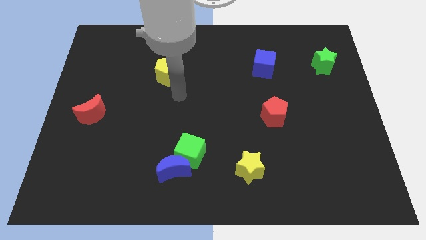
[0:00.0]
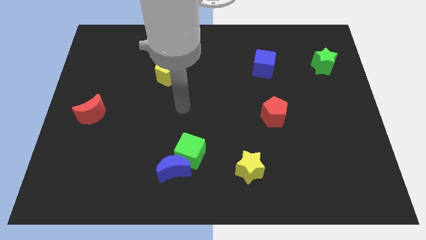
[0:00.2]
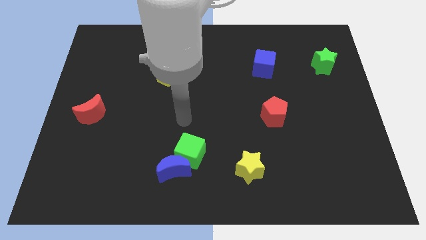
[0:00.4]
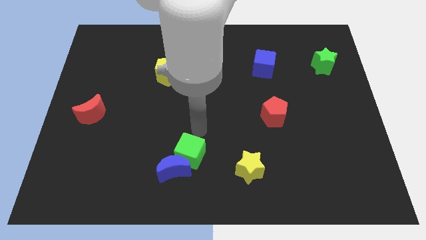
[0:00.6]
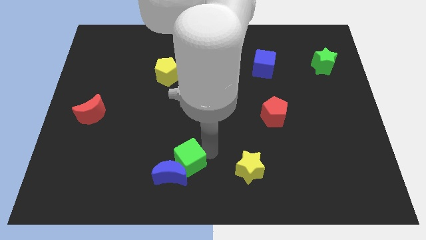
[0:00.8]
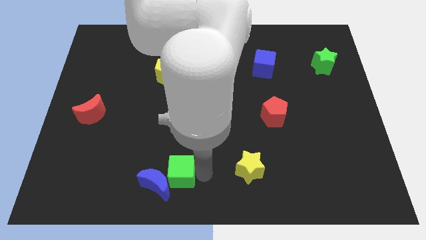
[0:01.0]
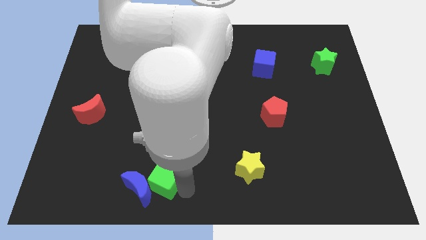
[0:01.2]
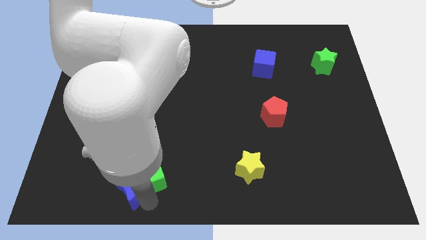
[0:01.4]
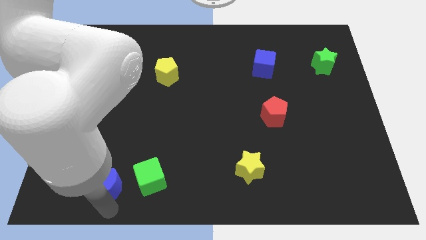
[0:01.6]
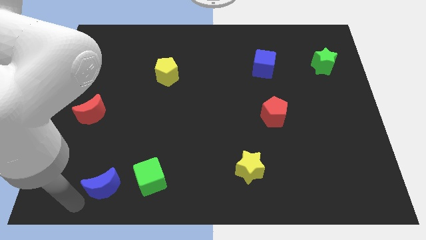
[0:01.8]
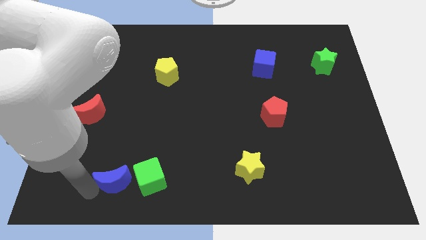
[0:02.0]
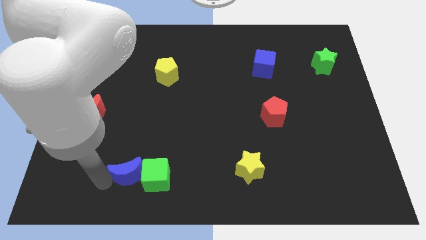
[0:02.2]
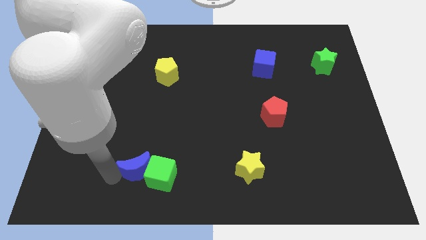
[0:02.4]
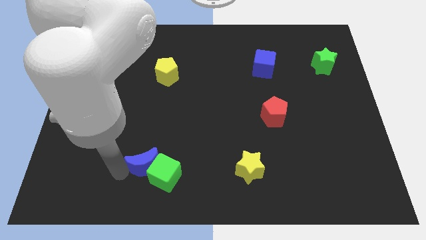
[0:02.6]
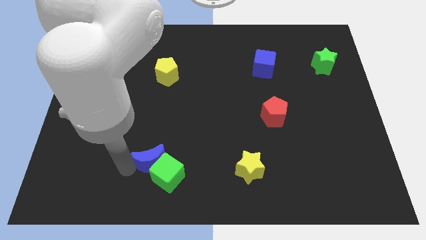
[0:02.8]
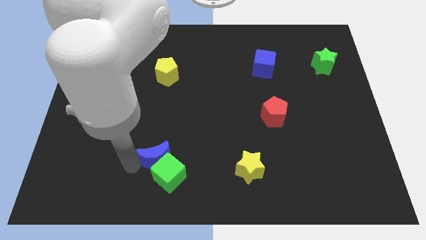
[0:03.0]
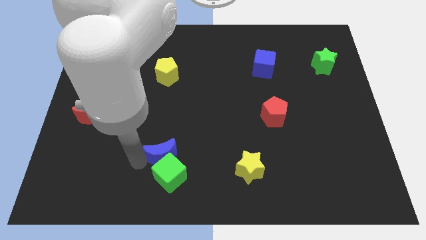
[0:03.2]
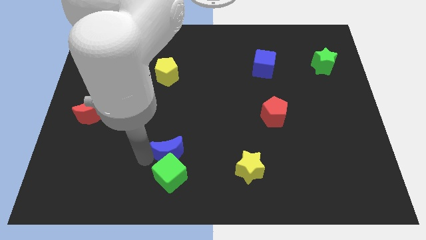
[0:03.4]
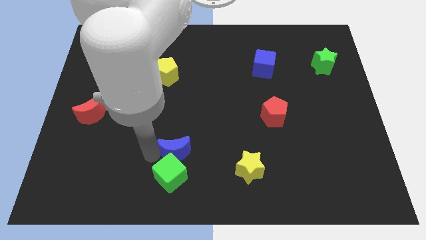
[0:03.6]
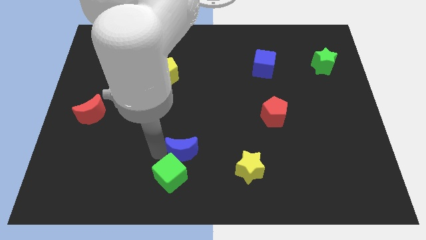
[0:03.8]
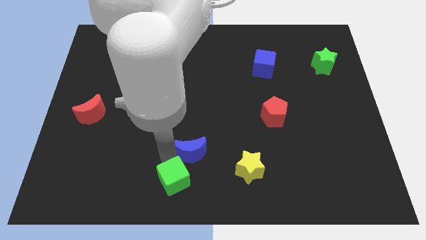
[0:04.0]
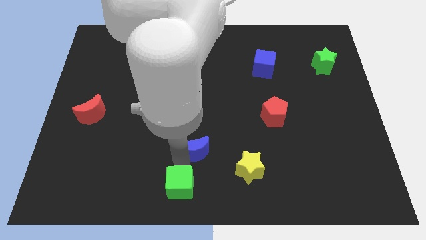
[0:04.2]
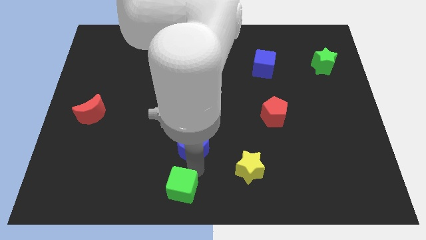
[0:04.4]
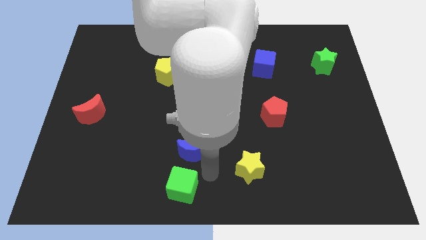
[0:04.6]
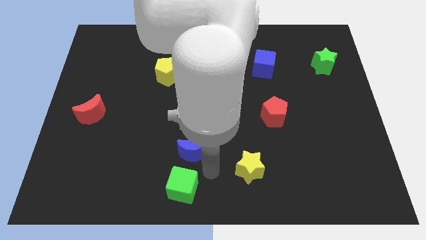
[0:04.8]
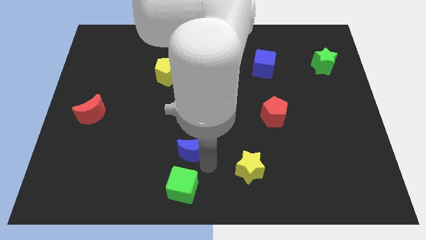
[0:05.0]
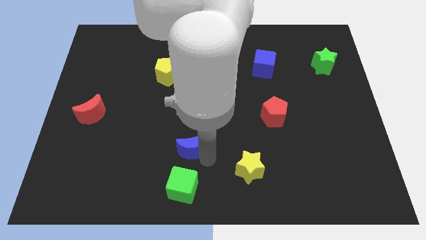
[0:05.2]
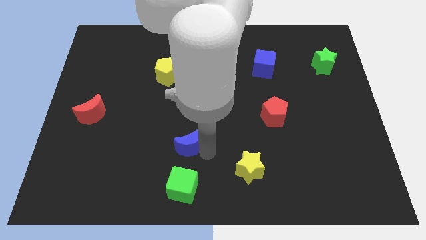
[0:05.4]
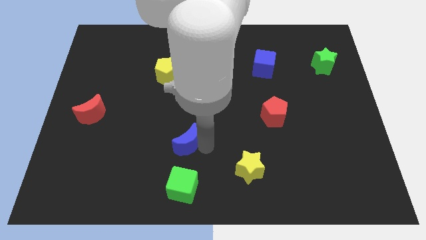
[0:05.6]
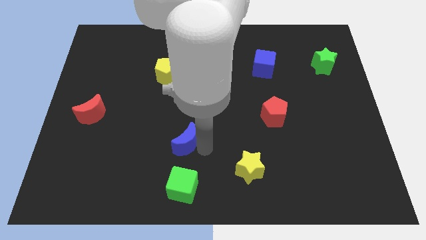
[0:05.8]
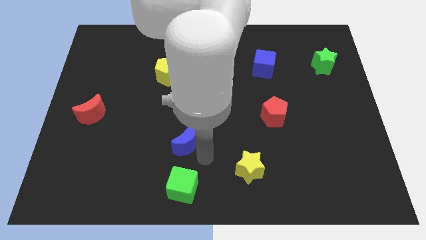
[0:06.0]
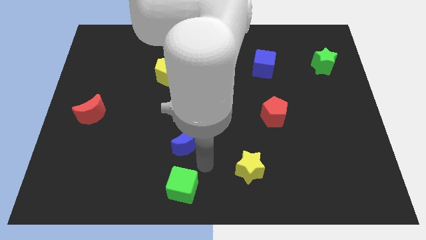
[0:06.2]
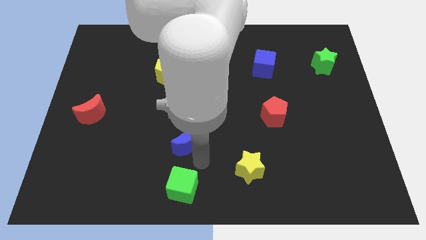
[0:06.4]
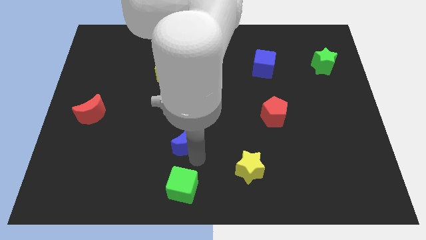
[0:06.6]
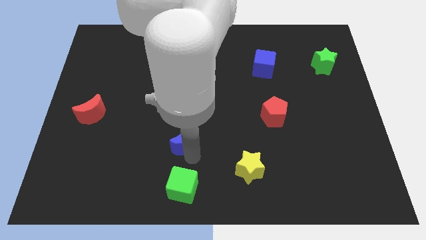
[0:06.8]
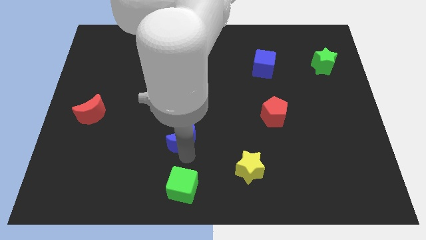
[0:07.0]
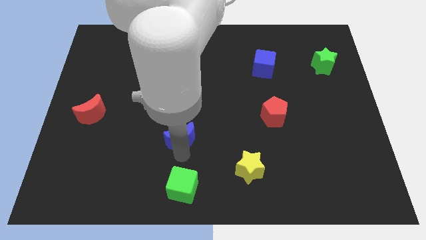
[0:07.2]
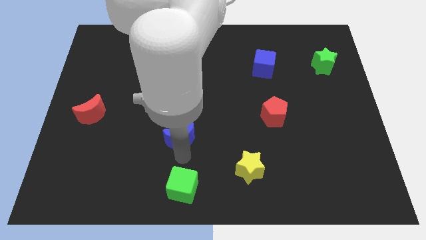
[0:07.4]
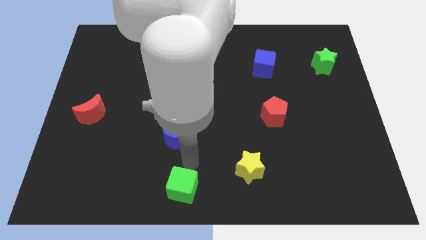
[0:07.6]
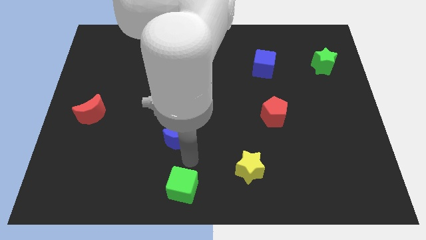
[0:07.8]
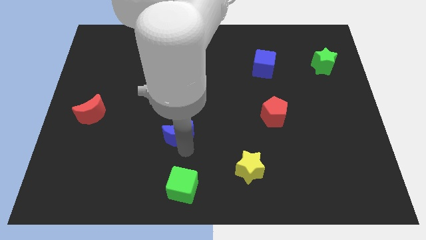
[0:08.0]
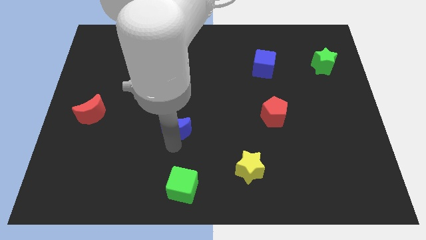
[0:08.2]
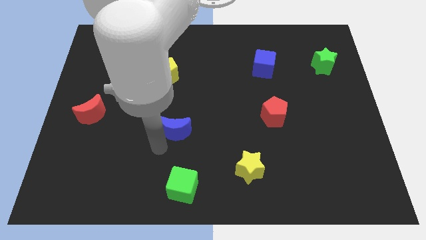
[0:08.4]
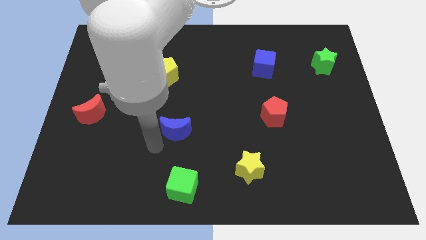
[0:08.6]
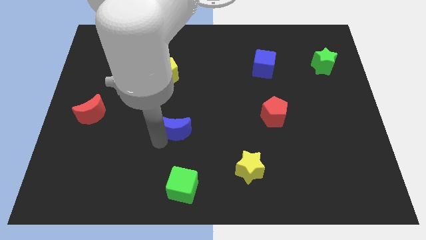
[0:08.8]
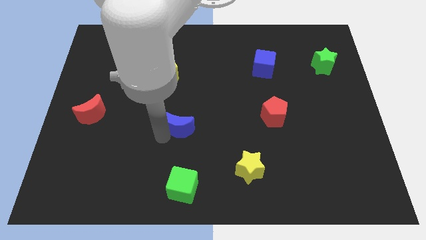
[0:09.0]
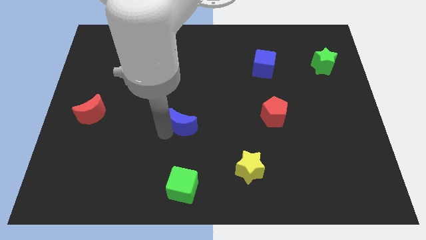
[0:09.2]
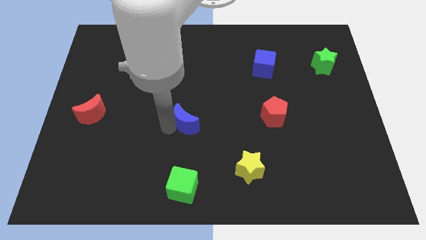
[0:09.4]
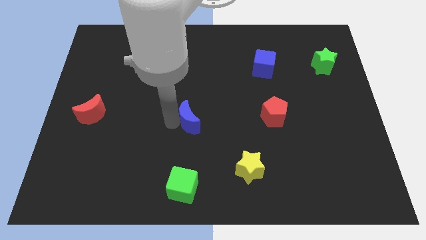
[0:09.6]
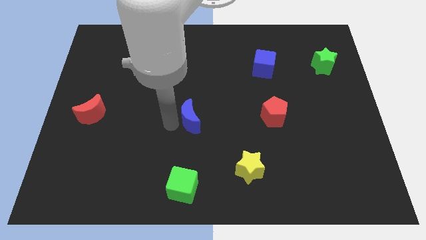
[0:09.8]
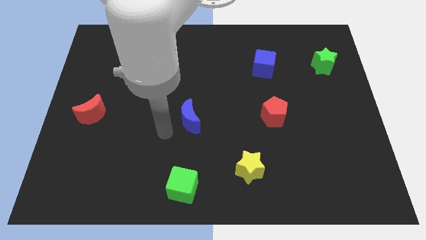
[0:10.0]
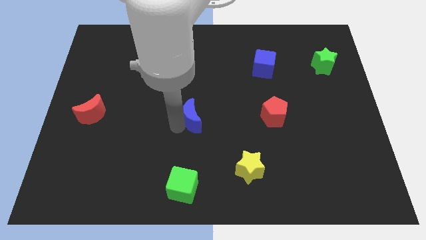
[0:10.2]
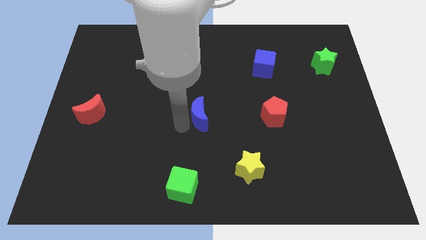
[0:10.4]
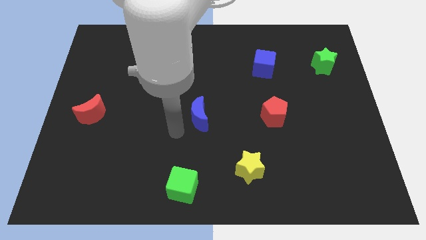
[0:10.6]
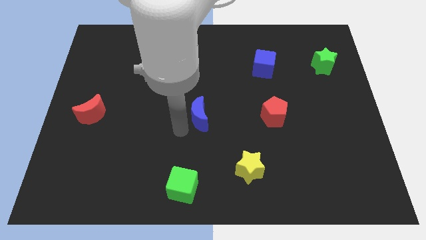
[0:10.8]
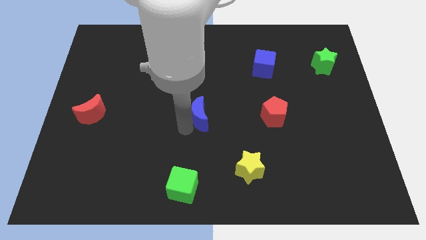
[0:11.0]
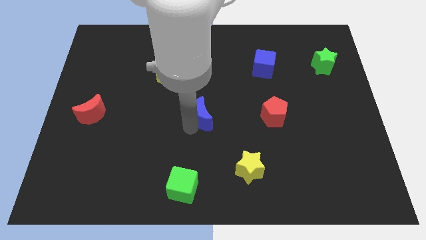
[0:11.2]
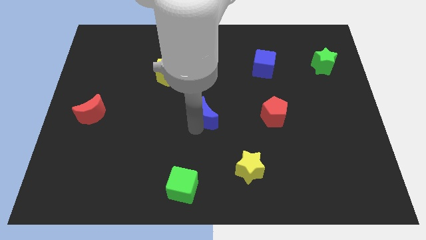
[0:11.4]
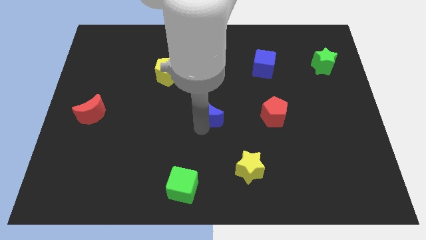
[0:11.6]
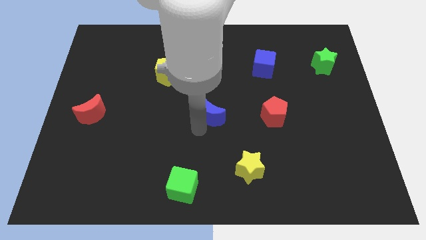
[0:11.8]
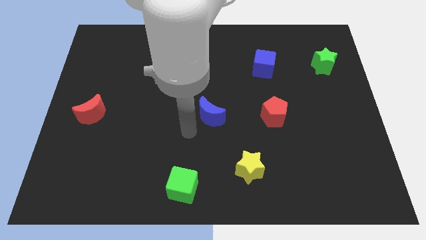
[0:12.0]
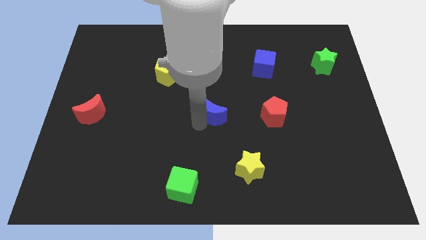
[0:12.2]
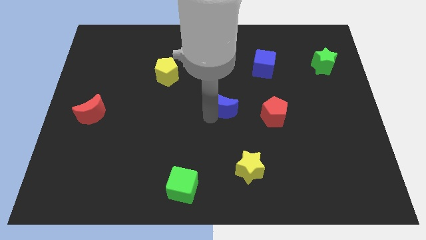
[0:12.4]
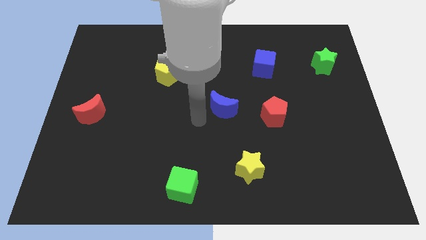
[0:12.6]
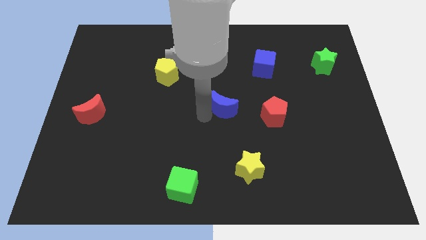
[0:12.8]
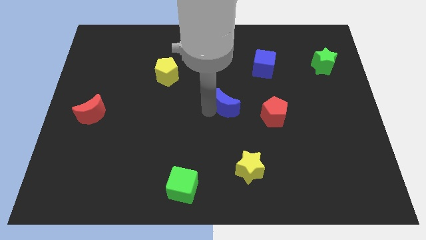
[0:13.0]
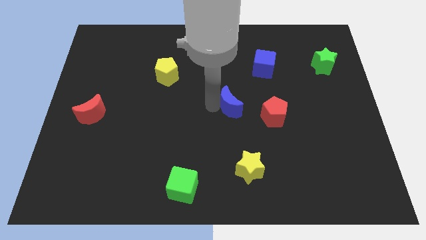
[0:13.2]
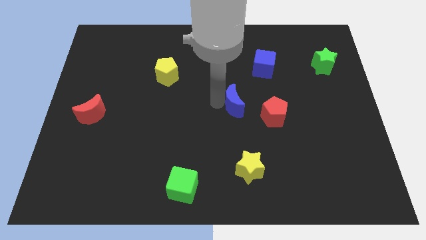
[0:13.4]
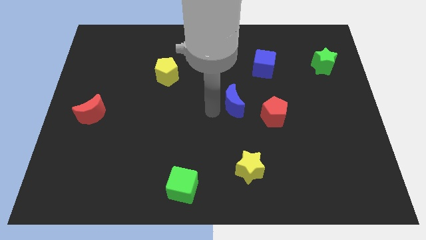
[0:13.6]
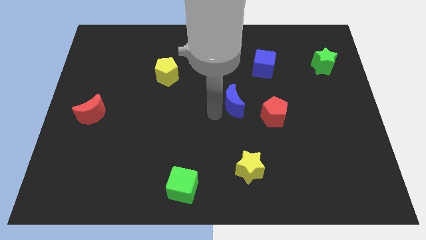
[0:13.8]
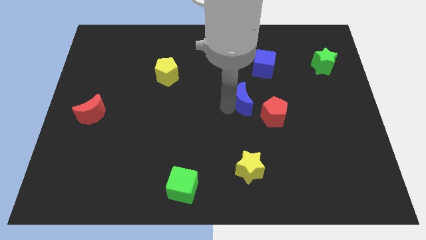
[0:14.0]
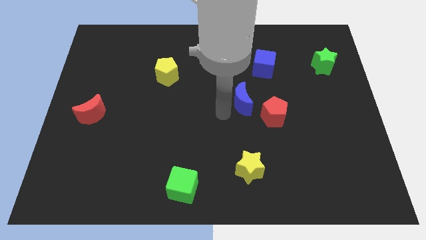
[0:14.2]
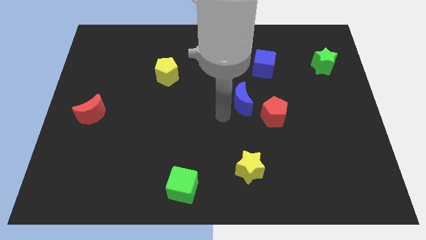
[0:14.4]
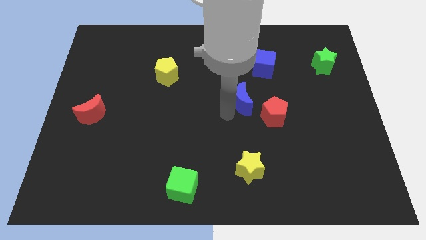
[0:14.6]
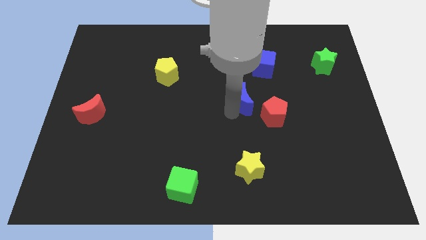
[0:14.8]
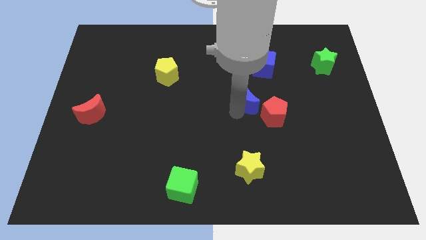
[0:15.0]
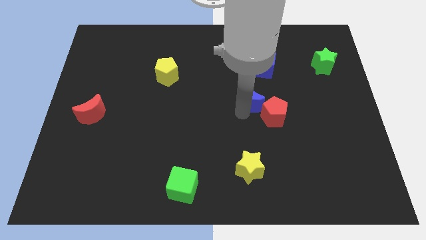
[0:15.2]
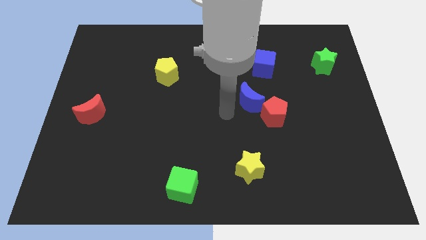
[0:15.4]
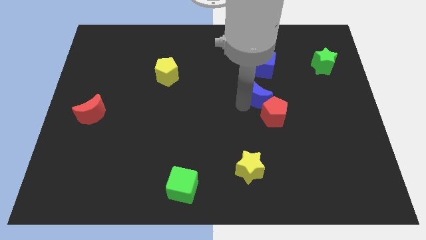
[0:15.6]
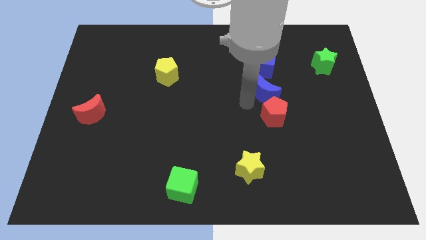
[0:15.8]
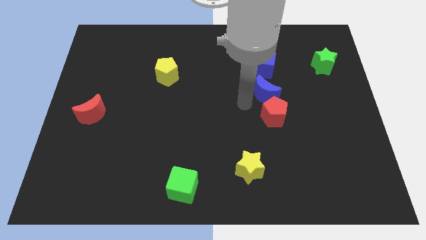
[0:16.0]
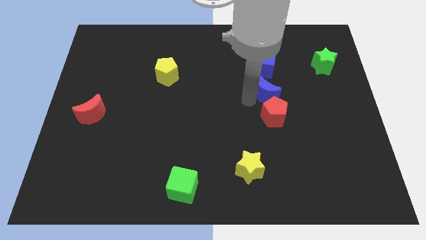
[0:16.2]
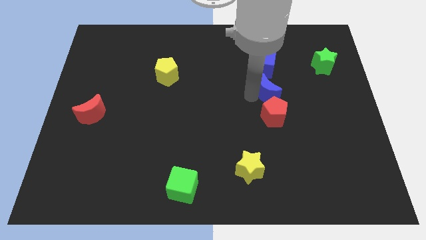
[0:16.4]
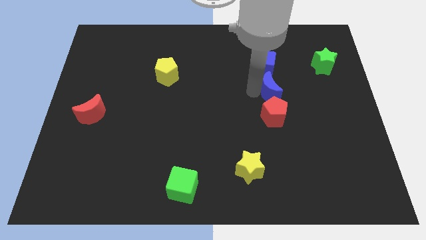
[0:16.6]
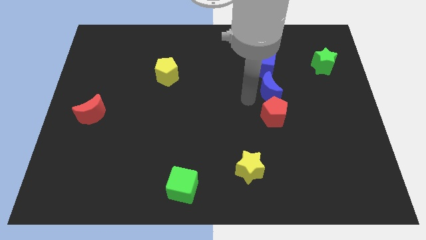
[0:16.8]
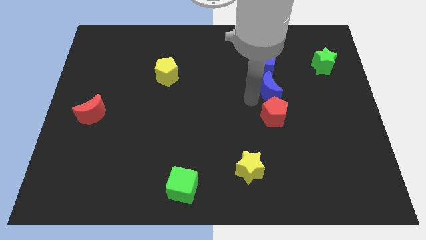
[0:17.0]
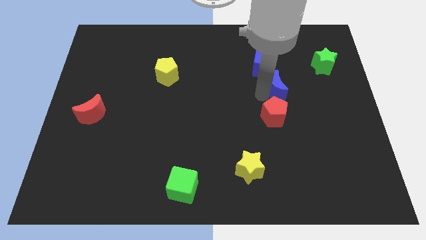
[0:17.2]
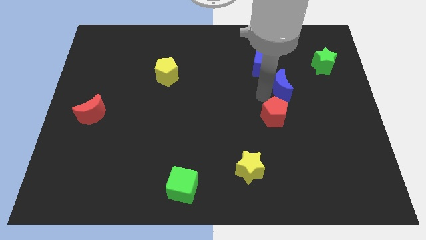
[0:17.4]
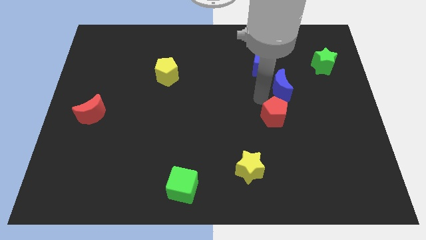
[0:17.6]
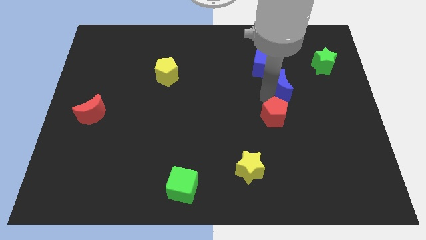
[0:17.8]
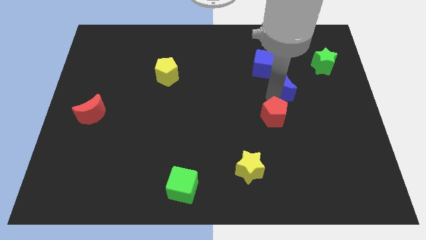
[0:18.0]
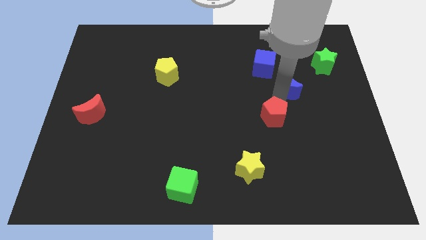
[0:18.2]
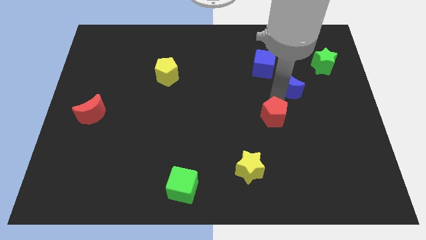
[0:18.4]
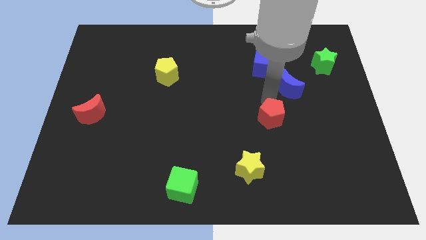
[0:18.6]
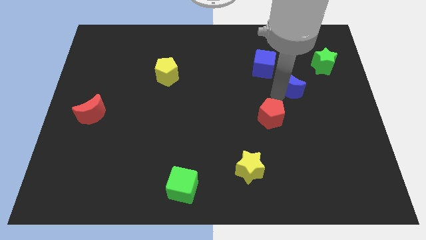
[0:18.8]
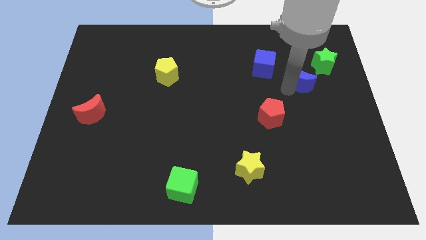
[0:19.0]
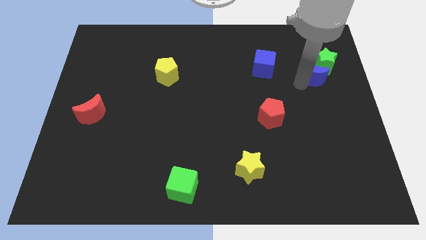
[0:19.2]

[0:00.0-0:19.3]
move the blue moon next to the green star
